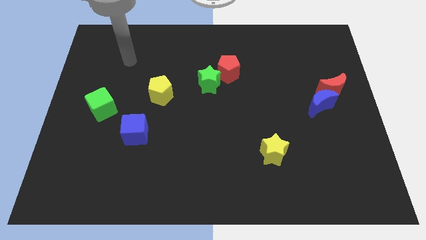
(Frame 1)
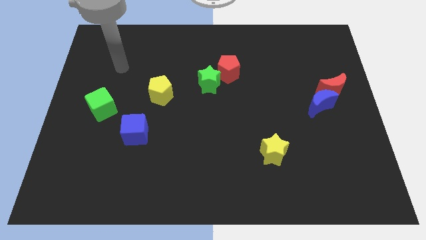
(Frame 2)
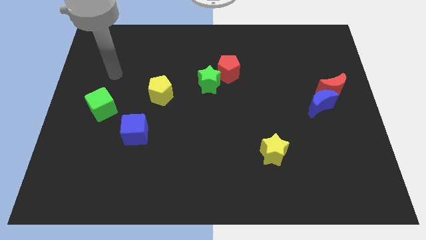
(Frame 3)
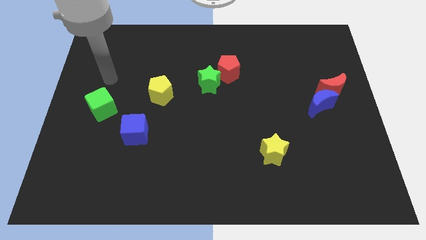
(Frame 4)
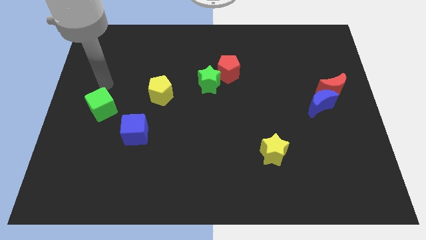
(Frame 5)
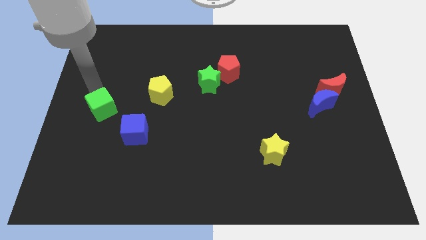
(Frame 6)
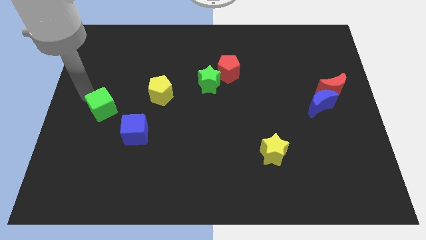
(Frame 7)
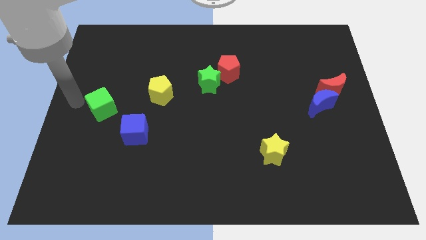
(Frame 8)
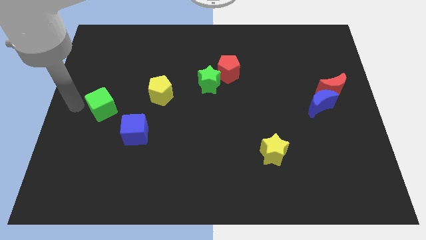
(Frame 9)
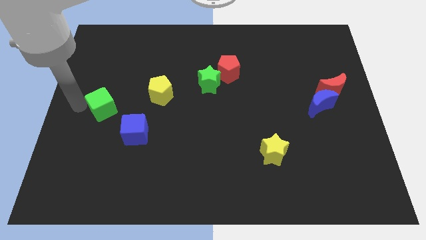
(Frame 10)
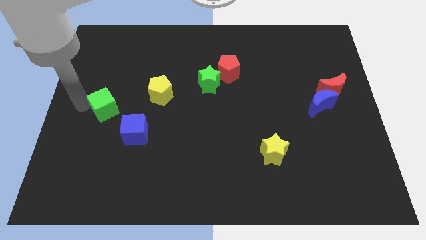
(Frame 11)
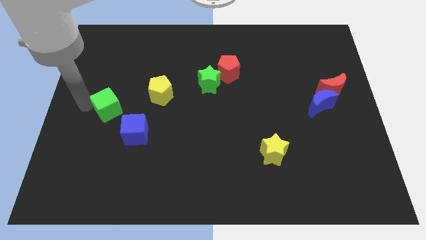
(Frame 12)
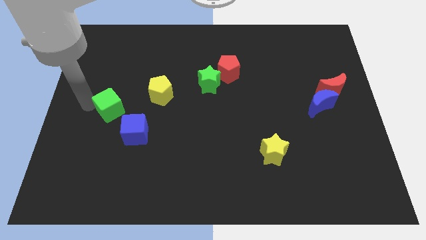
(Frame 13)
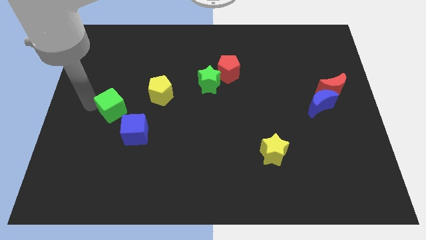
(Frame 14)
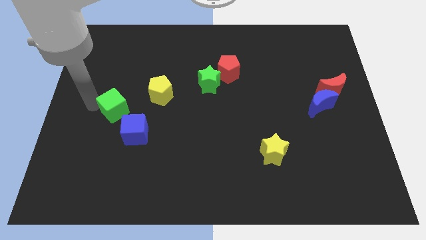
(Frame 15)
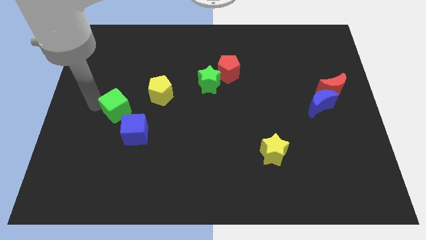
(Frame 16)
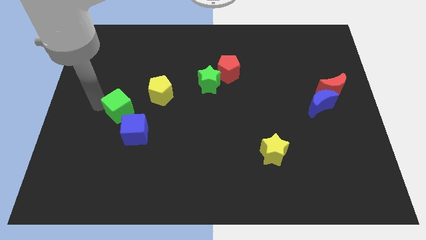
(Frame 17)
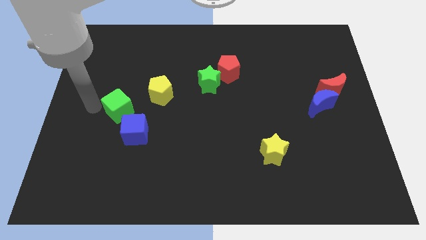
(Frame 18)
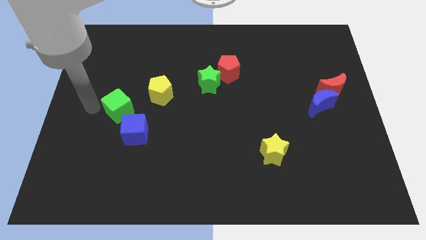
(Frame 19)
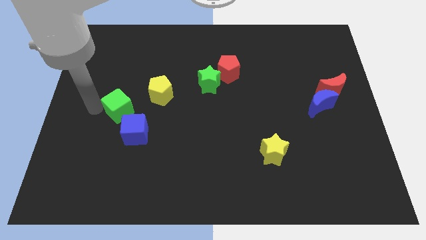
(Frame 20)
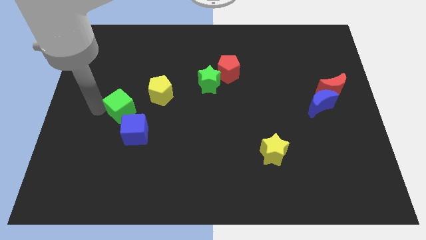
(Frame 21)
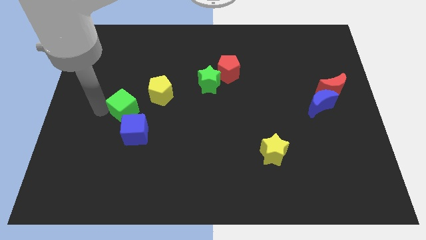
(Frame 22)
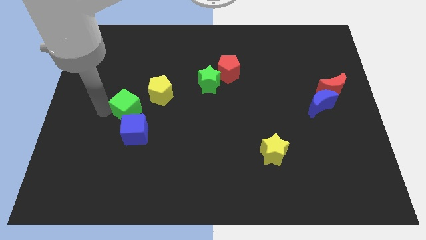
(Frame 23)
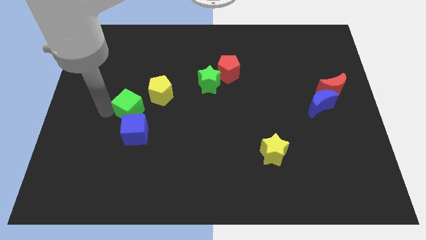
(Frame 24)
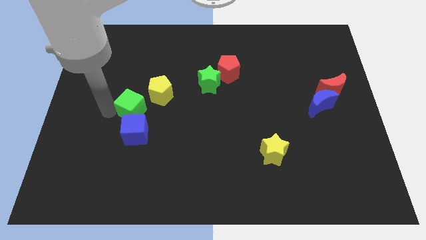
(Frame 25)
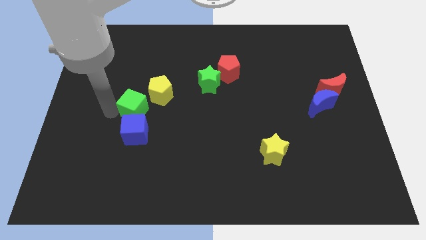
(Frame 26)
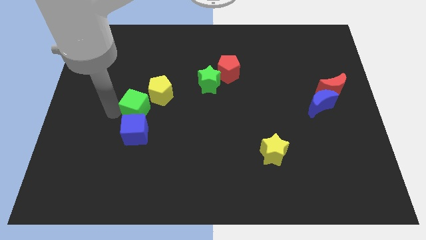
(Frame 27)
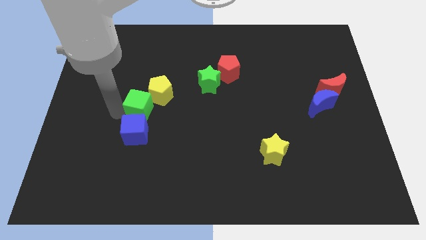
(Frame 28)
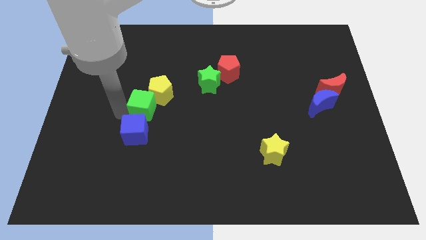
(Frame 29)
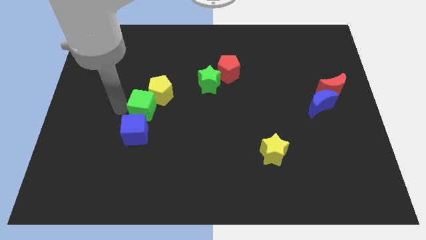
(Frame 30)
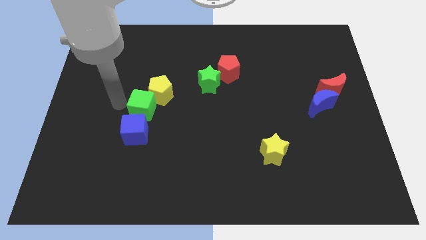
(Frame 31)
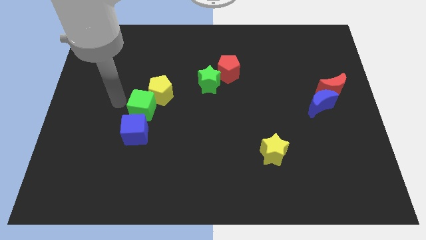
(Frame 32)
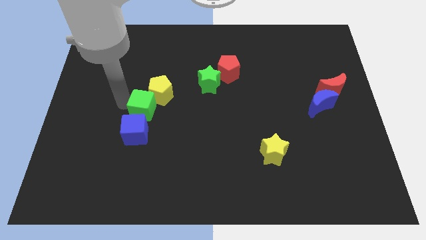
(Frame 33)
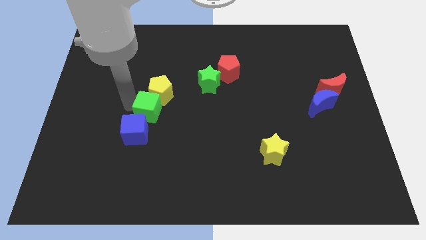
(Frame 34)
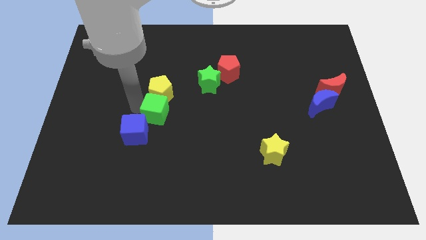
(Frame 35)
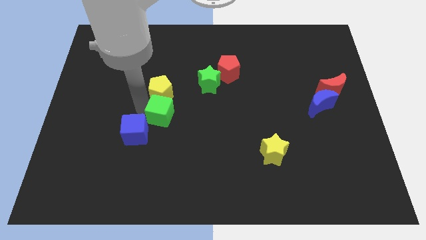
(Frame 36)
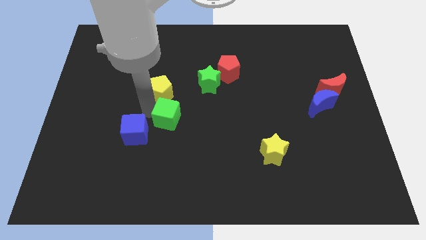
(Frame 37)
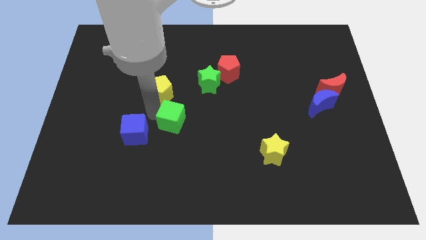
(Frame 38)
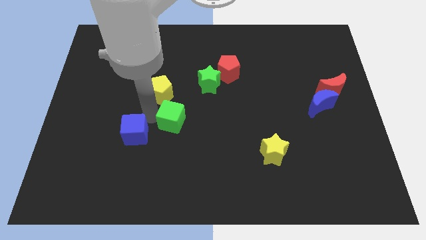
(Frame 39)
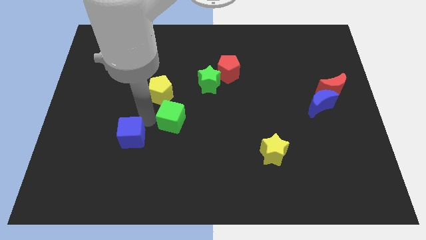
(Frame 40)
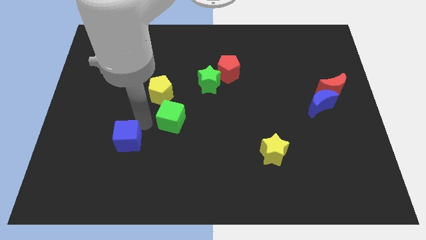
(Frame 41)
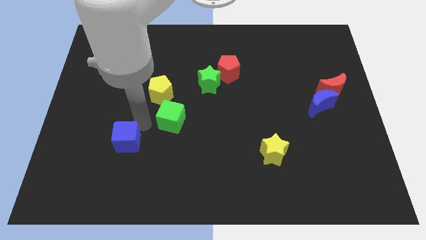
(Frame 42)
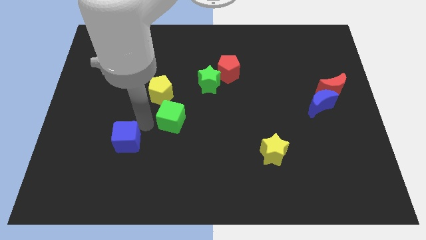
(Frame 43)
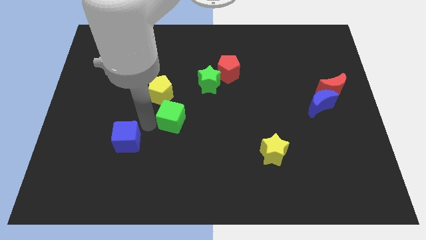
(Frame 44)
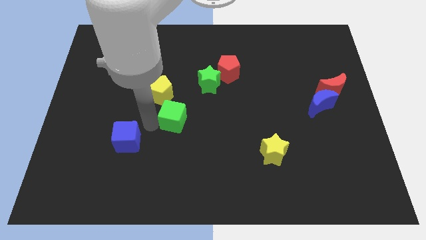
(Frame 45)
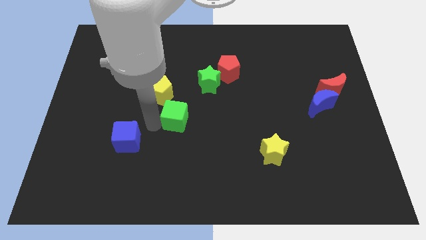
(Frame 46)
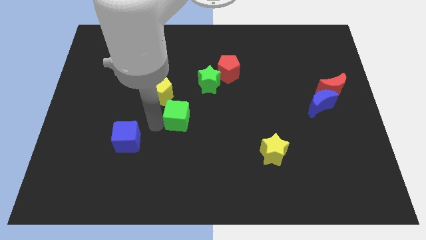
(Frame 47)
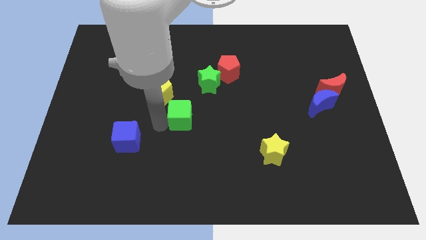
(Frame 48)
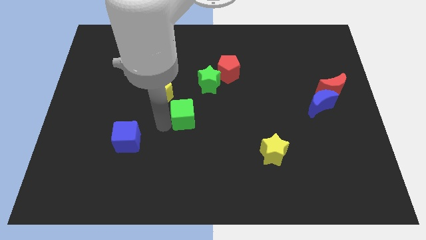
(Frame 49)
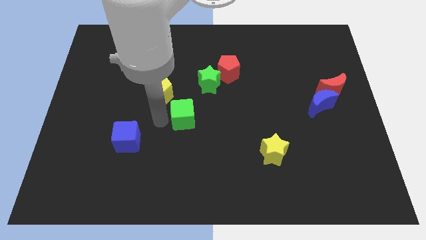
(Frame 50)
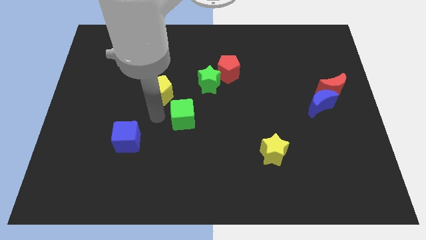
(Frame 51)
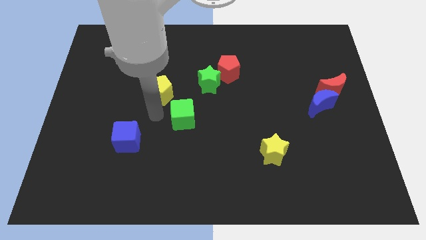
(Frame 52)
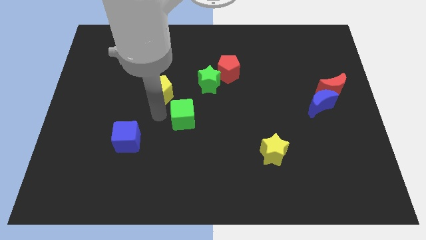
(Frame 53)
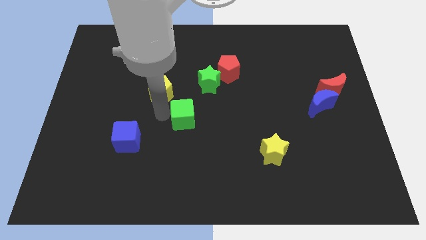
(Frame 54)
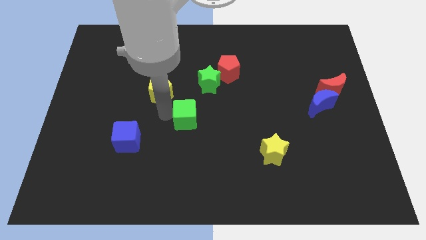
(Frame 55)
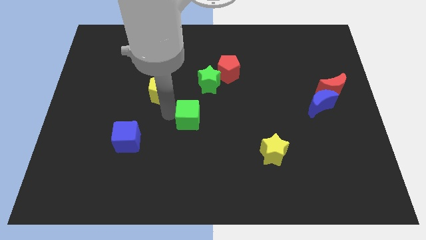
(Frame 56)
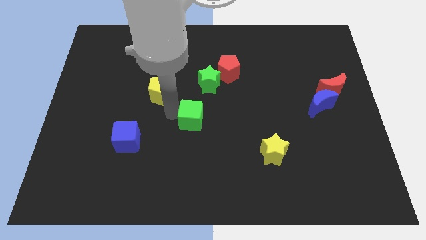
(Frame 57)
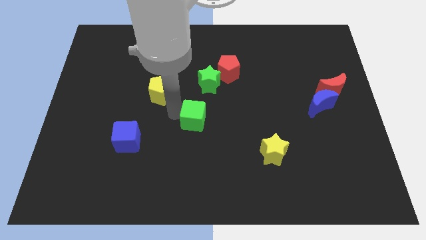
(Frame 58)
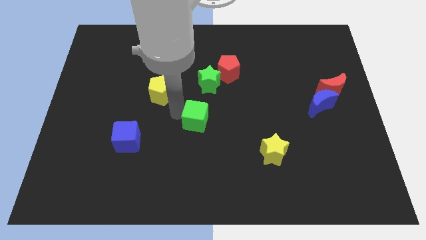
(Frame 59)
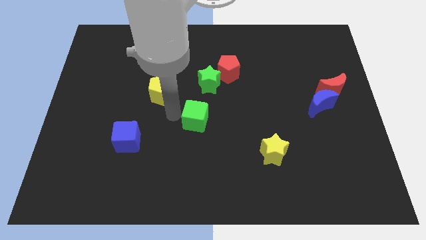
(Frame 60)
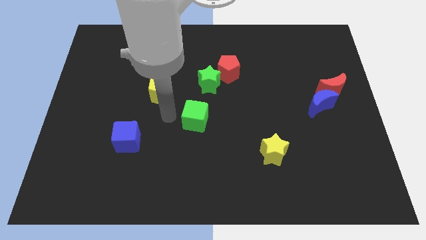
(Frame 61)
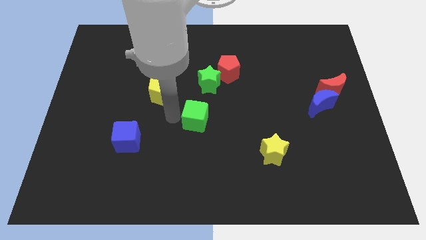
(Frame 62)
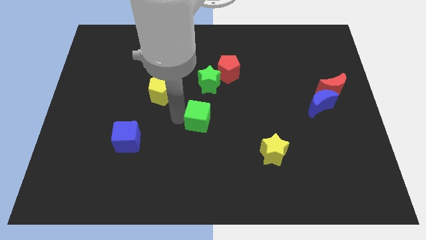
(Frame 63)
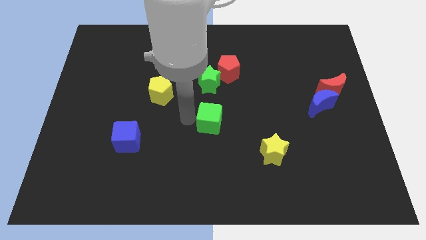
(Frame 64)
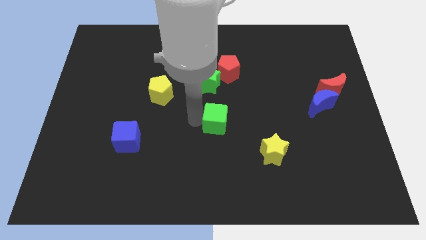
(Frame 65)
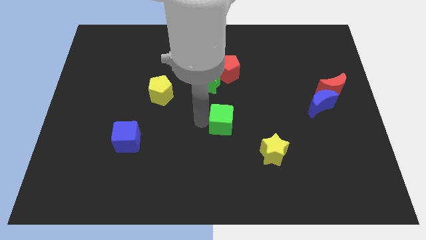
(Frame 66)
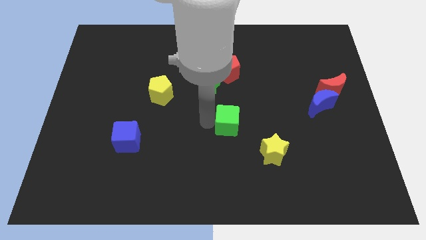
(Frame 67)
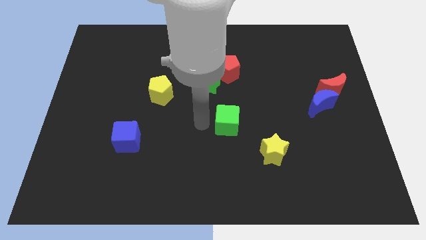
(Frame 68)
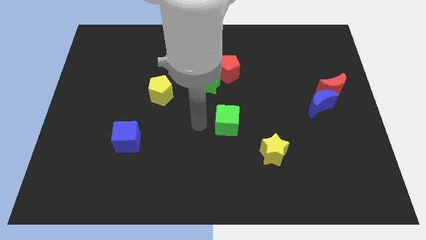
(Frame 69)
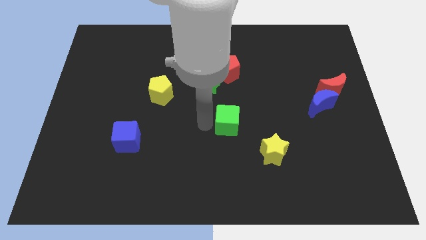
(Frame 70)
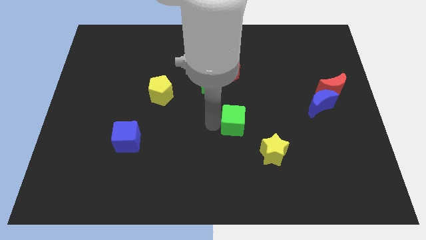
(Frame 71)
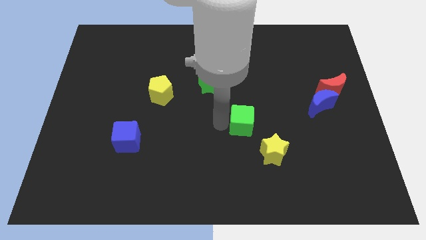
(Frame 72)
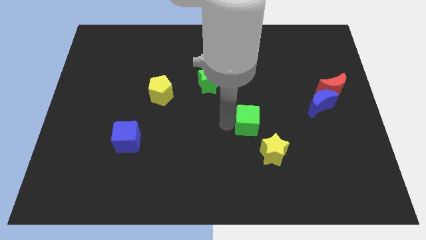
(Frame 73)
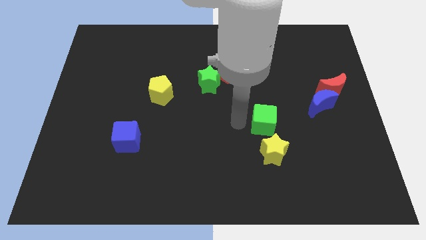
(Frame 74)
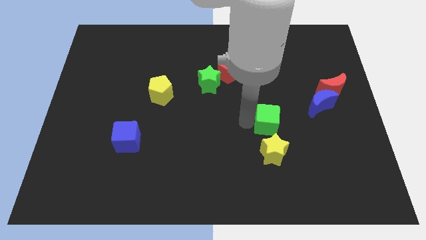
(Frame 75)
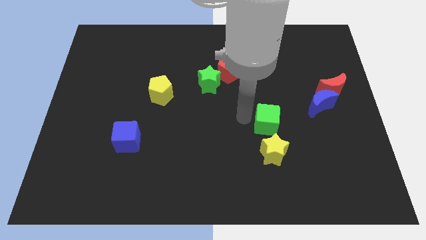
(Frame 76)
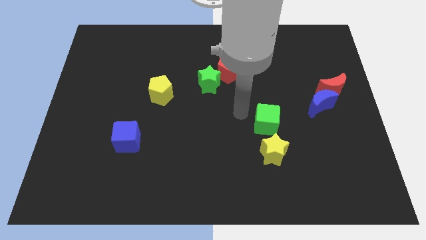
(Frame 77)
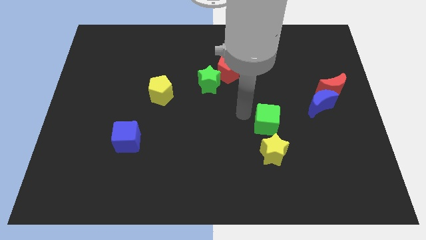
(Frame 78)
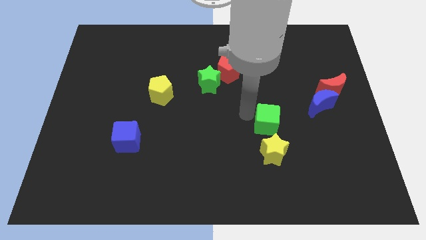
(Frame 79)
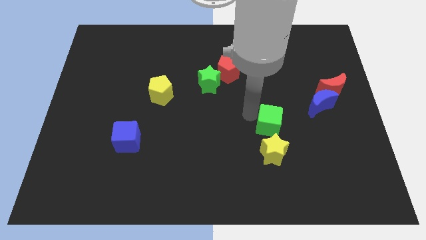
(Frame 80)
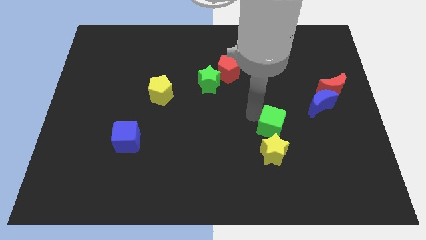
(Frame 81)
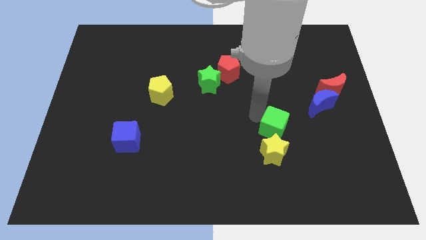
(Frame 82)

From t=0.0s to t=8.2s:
slide the green cube diagonally up and to the right of the yellow star
